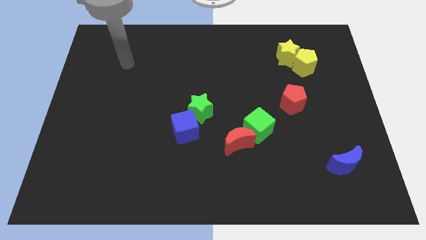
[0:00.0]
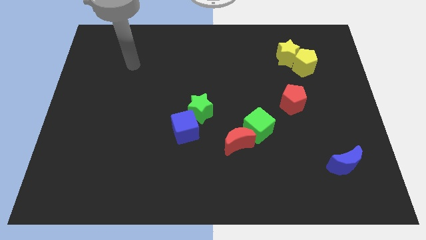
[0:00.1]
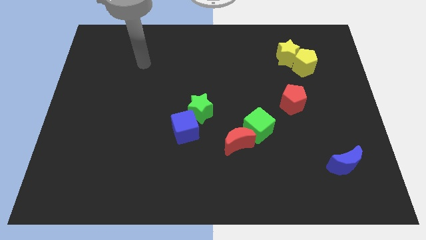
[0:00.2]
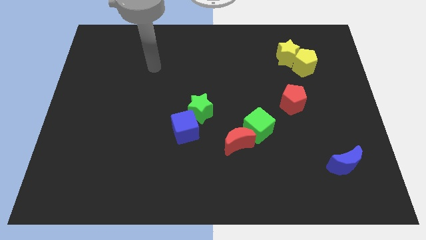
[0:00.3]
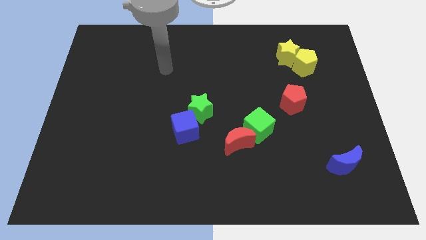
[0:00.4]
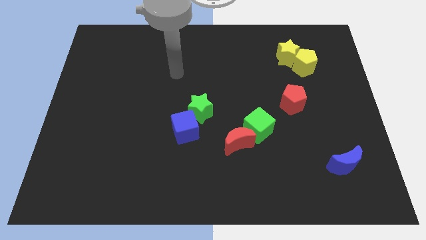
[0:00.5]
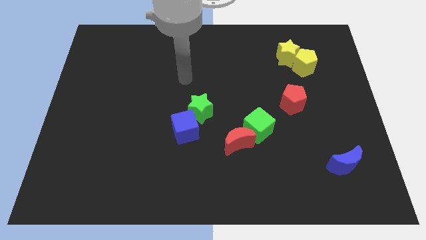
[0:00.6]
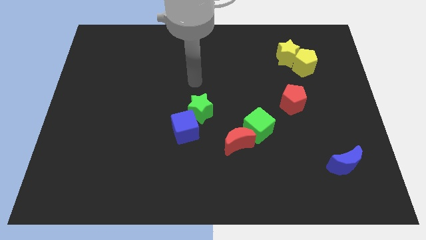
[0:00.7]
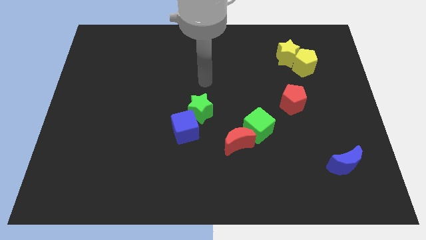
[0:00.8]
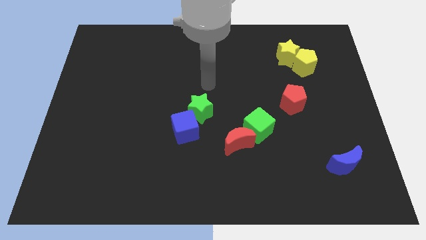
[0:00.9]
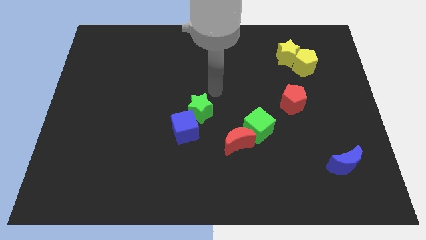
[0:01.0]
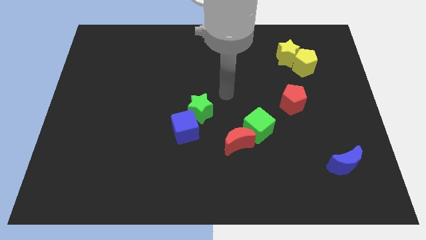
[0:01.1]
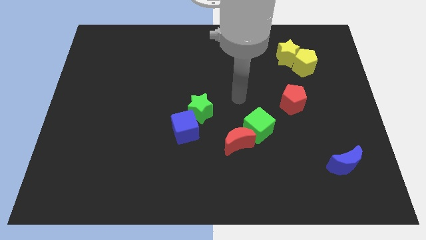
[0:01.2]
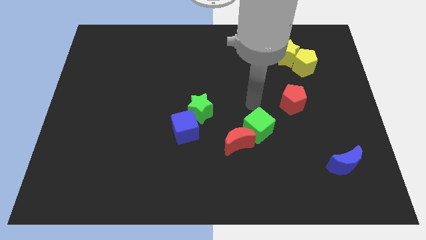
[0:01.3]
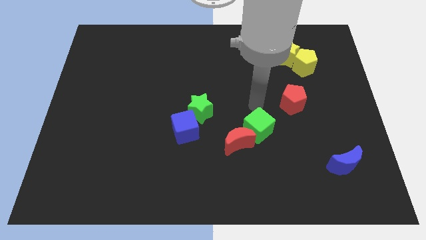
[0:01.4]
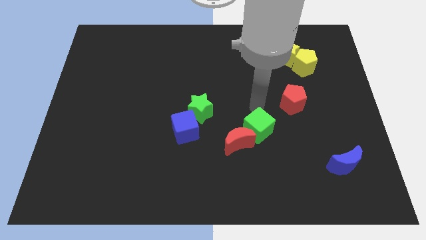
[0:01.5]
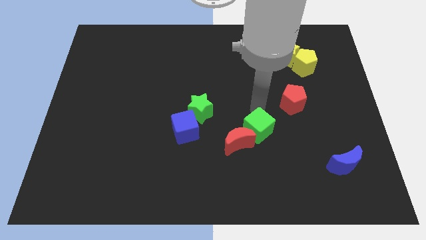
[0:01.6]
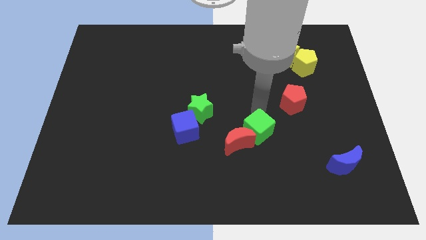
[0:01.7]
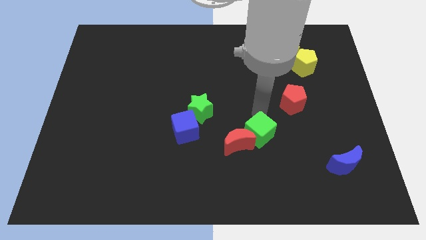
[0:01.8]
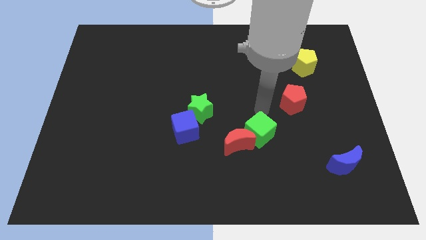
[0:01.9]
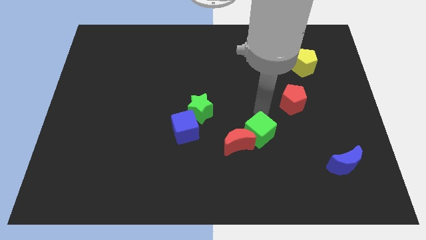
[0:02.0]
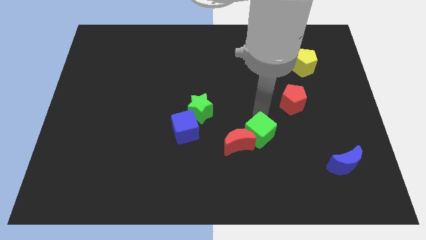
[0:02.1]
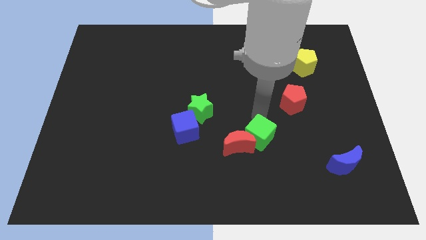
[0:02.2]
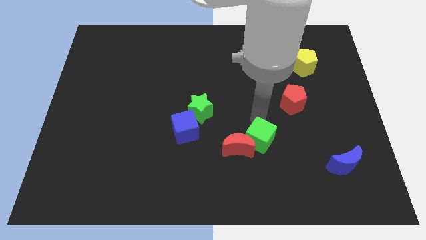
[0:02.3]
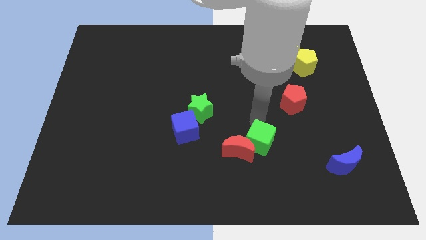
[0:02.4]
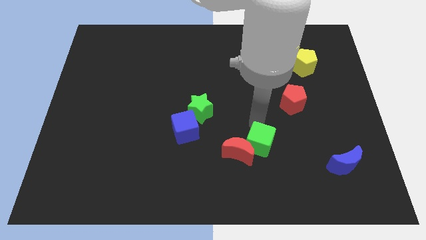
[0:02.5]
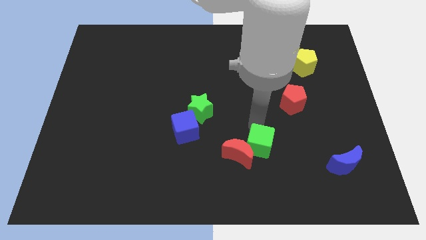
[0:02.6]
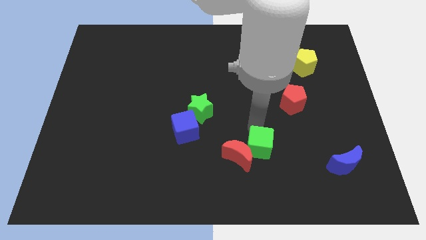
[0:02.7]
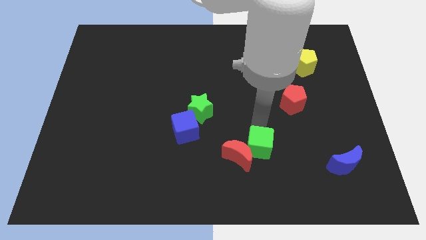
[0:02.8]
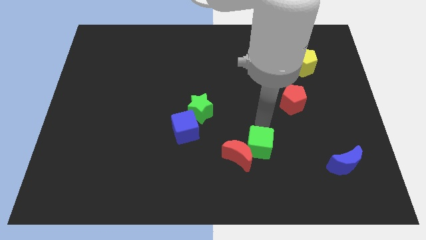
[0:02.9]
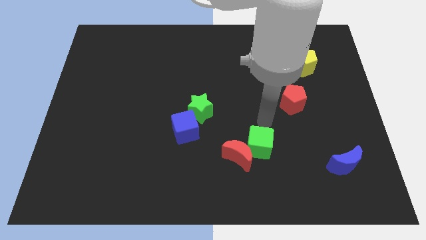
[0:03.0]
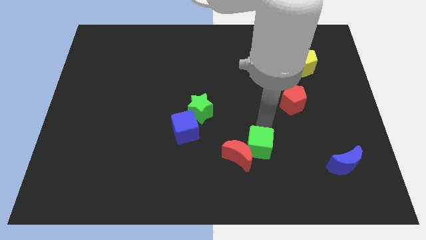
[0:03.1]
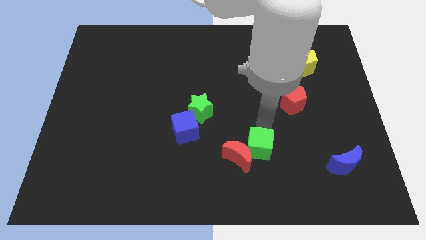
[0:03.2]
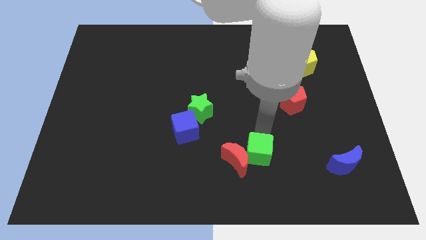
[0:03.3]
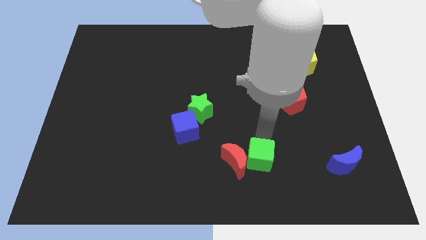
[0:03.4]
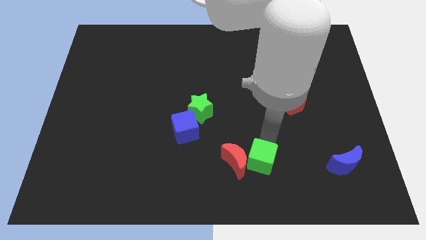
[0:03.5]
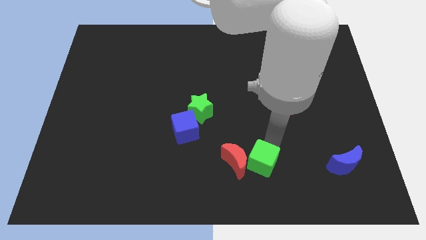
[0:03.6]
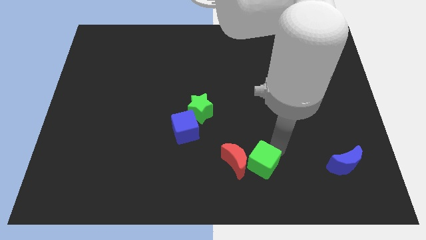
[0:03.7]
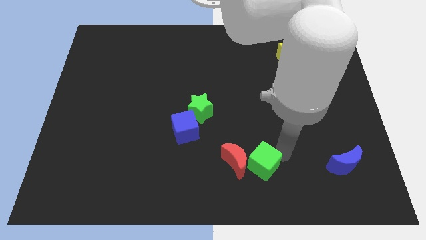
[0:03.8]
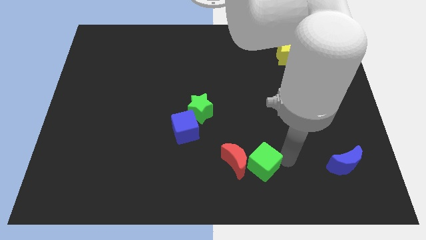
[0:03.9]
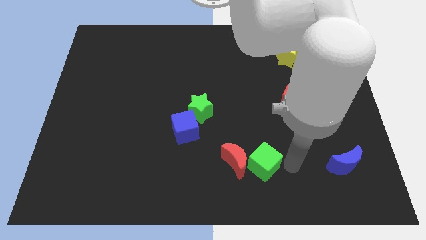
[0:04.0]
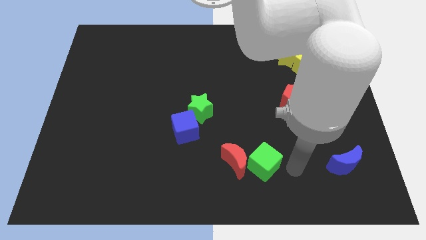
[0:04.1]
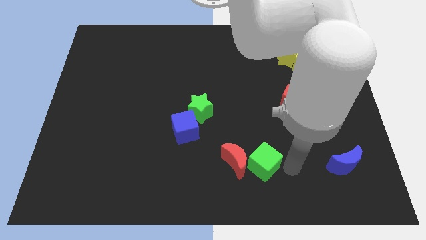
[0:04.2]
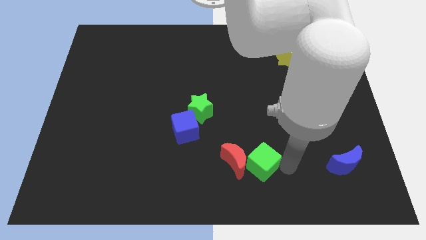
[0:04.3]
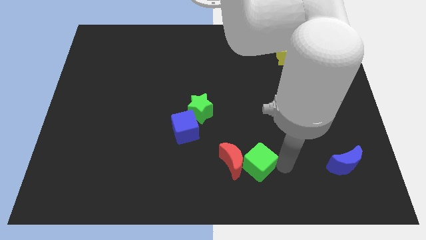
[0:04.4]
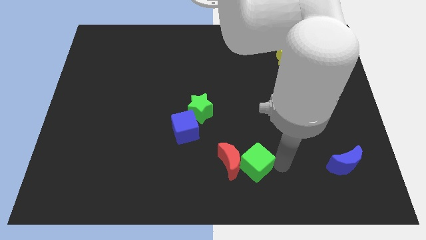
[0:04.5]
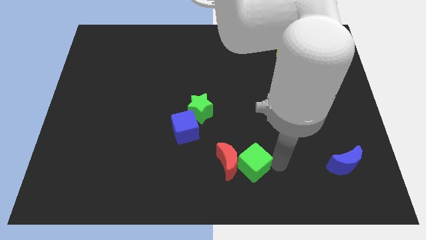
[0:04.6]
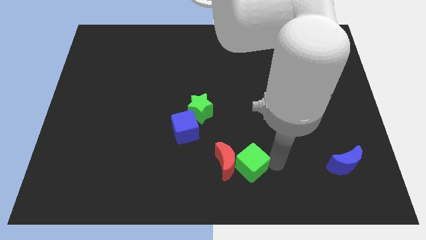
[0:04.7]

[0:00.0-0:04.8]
push the green cube a little bit down and then to the left

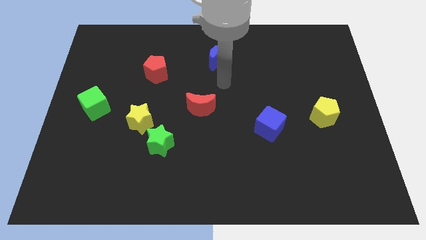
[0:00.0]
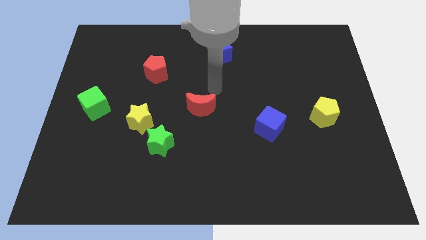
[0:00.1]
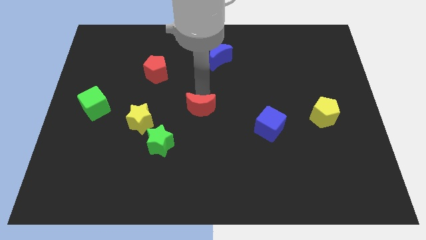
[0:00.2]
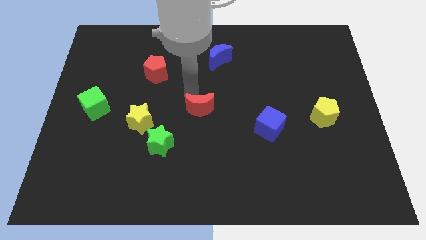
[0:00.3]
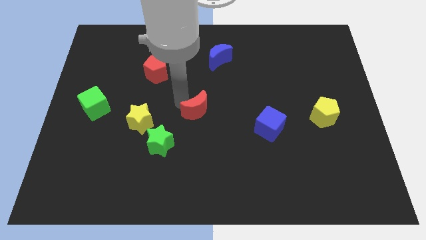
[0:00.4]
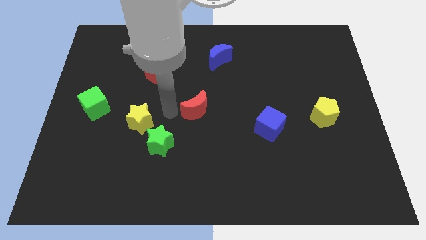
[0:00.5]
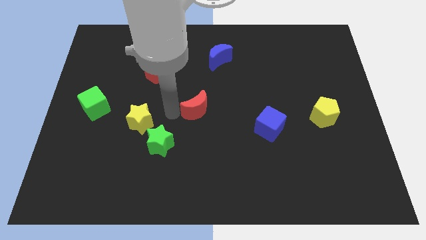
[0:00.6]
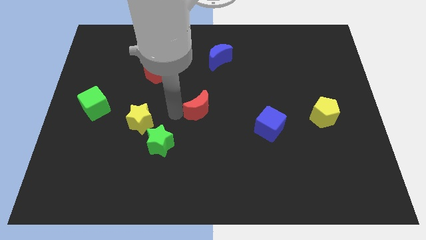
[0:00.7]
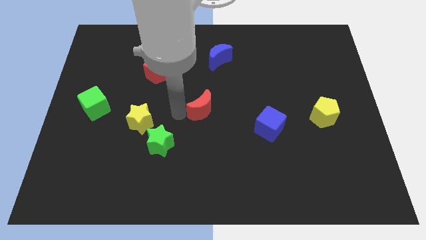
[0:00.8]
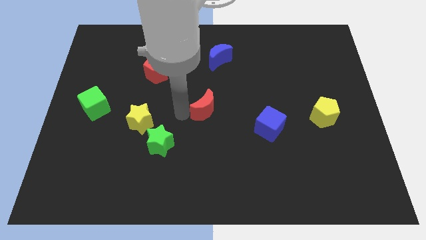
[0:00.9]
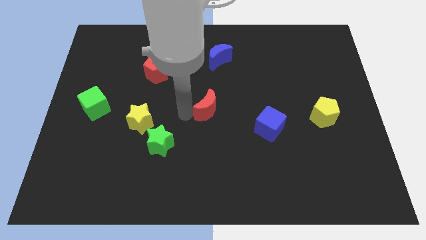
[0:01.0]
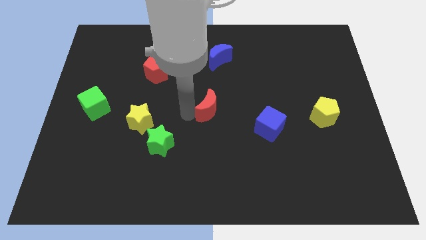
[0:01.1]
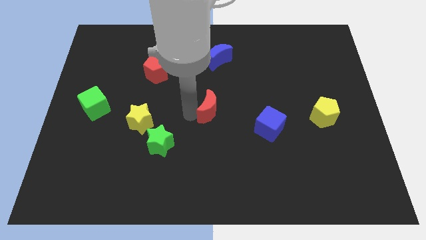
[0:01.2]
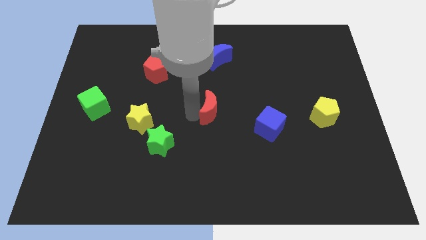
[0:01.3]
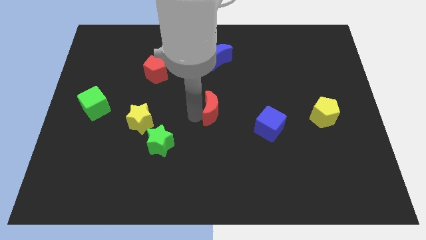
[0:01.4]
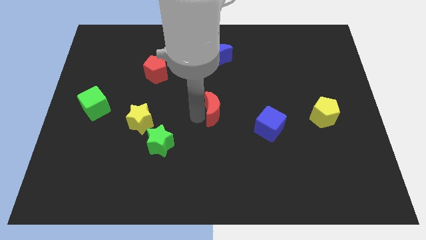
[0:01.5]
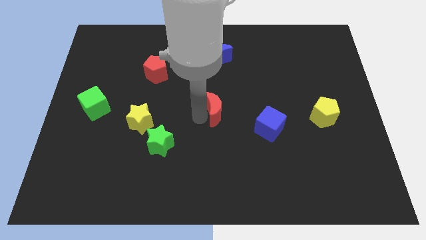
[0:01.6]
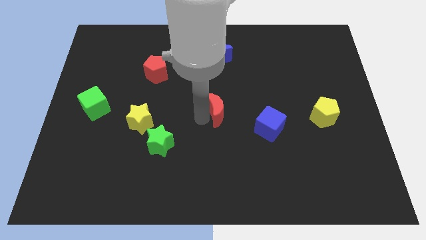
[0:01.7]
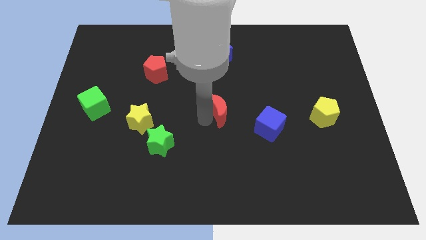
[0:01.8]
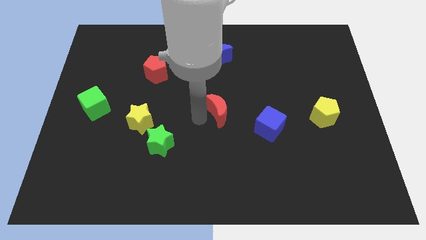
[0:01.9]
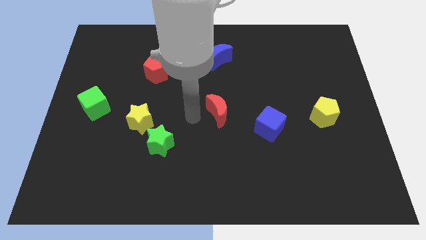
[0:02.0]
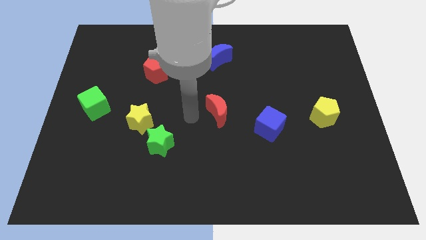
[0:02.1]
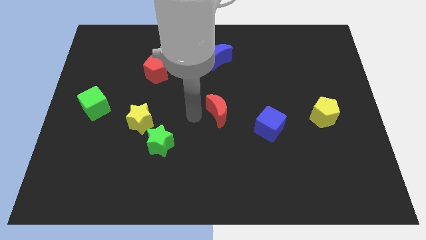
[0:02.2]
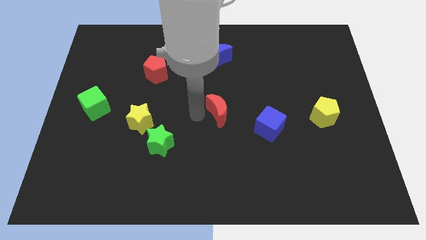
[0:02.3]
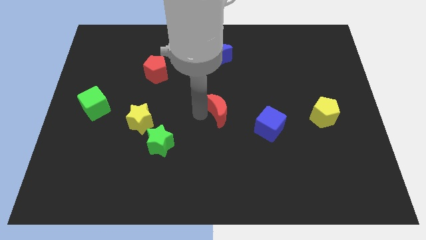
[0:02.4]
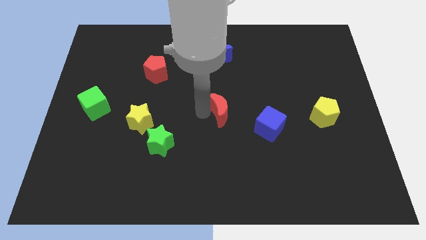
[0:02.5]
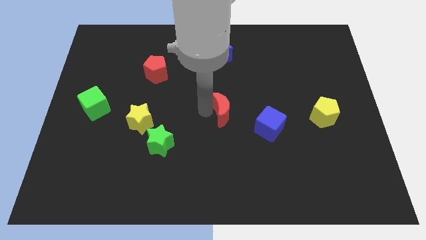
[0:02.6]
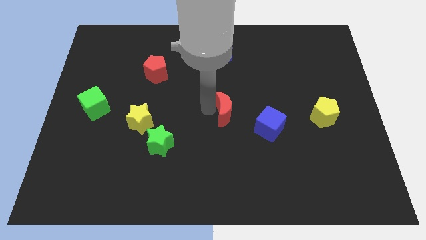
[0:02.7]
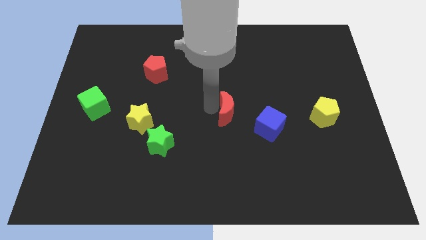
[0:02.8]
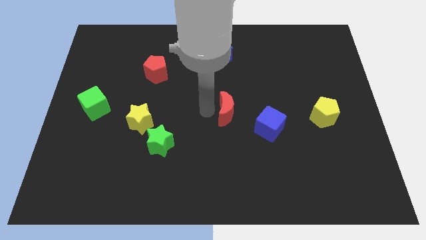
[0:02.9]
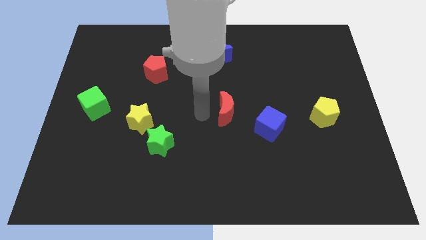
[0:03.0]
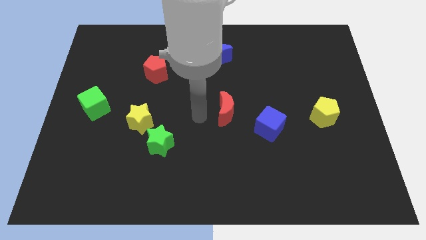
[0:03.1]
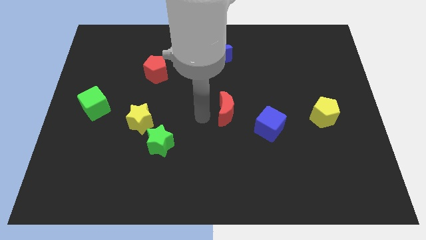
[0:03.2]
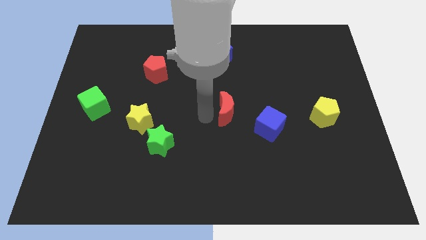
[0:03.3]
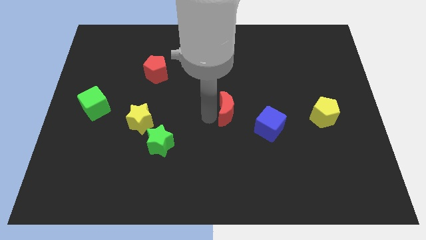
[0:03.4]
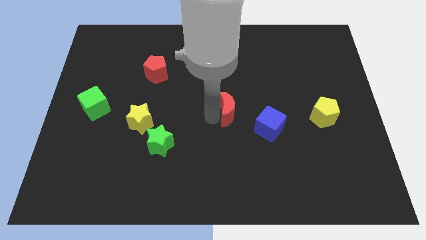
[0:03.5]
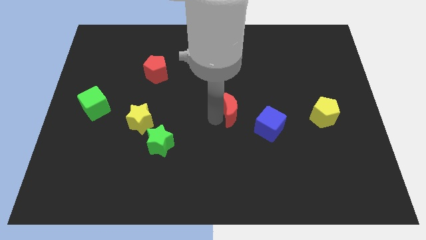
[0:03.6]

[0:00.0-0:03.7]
slightly push the red moon right
